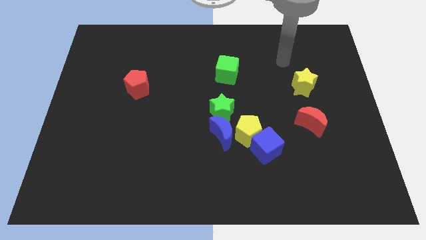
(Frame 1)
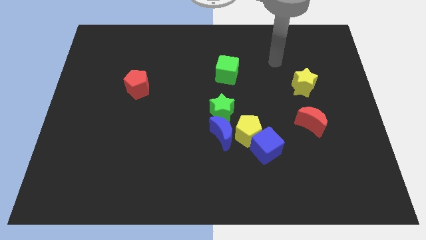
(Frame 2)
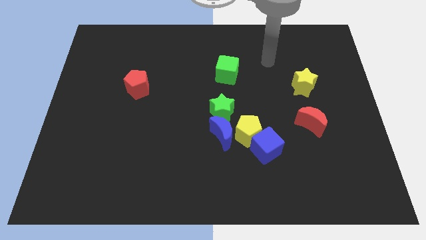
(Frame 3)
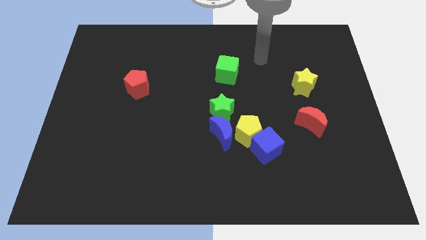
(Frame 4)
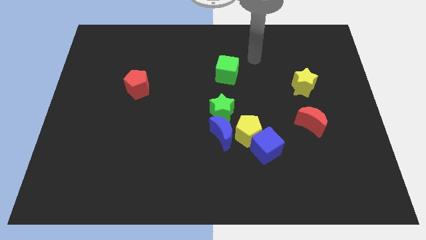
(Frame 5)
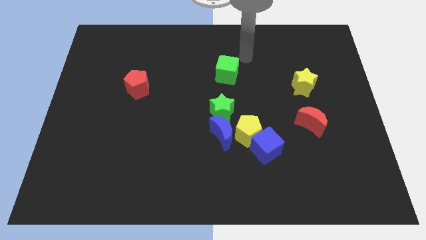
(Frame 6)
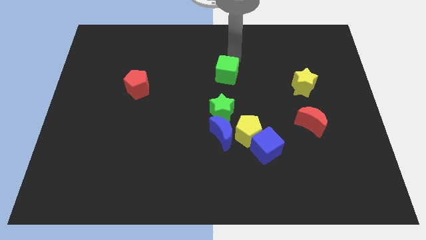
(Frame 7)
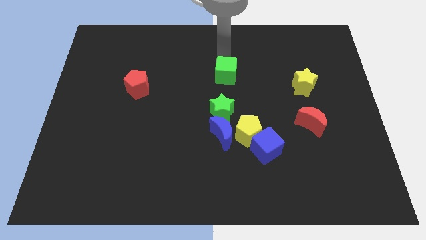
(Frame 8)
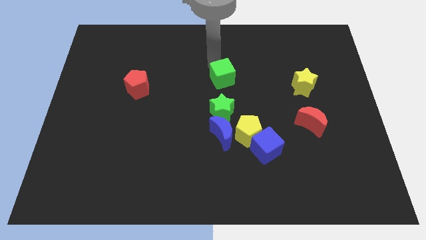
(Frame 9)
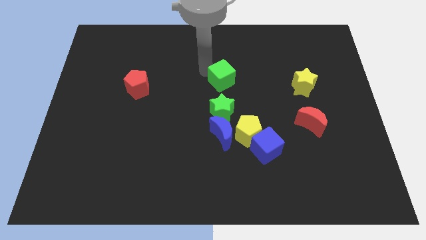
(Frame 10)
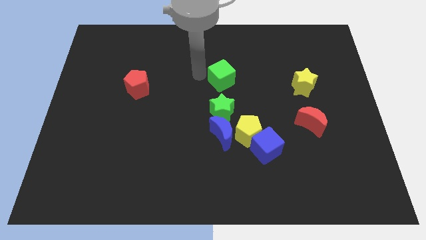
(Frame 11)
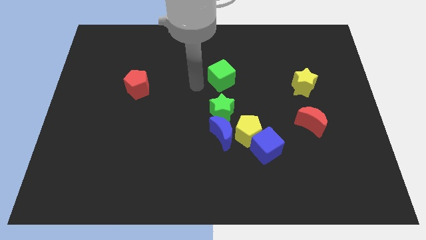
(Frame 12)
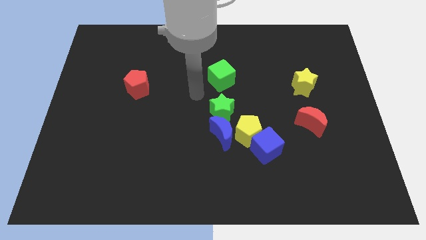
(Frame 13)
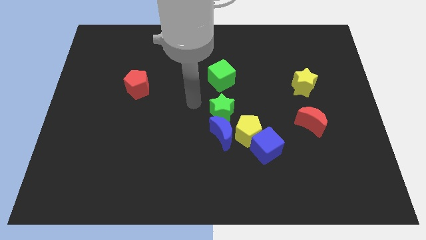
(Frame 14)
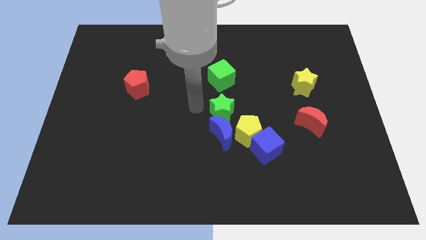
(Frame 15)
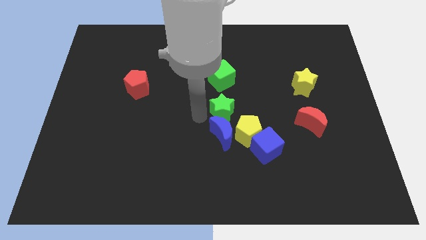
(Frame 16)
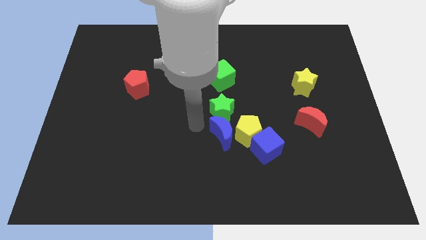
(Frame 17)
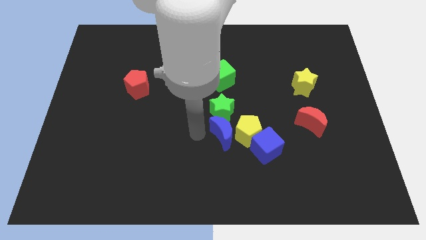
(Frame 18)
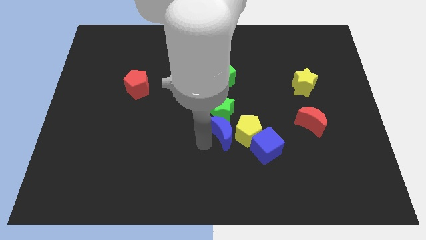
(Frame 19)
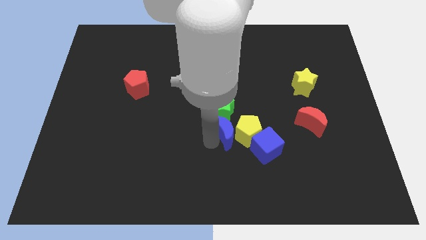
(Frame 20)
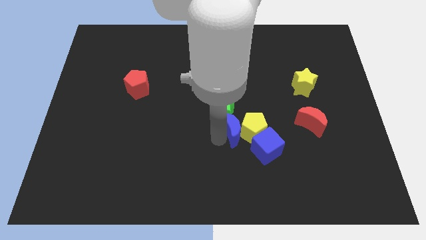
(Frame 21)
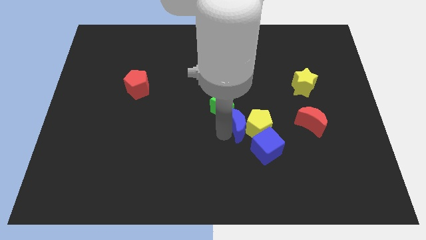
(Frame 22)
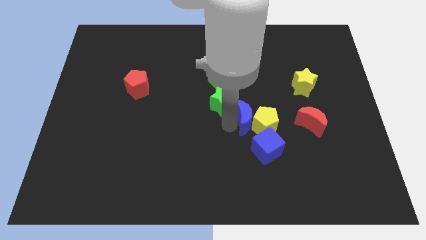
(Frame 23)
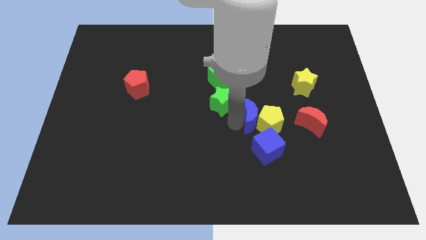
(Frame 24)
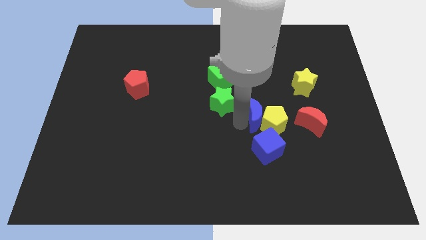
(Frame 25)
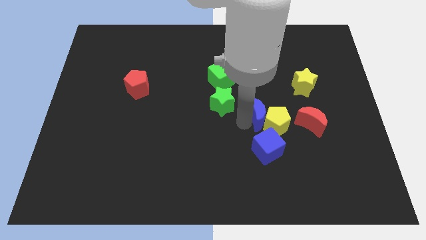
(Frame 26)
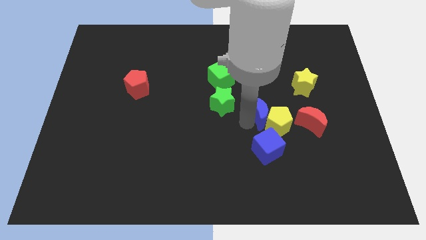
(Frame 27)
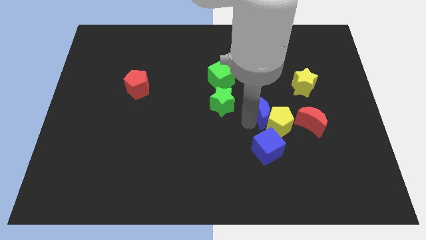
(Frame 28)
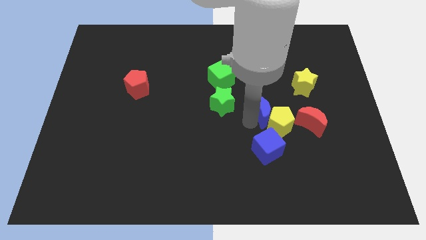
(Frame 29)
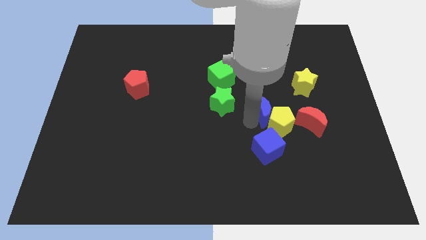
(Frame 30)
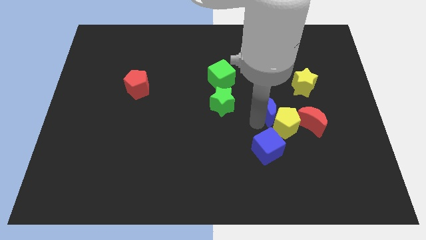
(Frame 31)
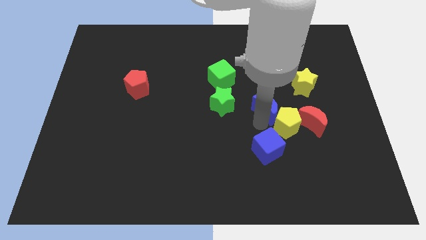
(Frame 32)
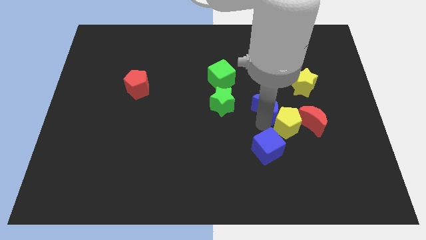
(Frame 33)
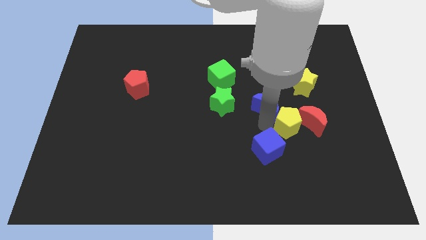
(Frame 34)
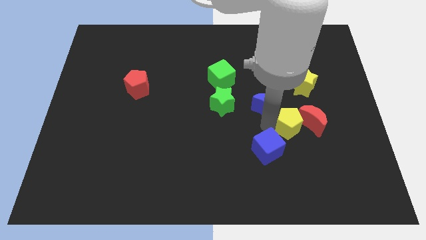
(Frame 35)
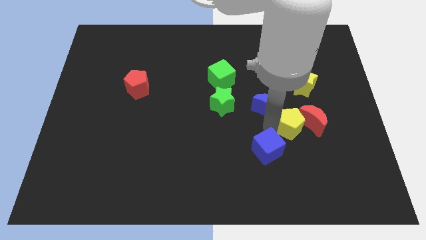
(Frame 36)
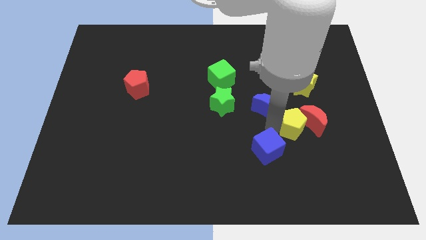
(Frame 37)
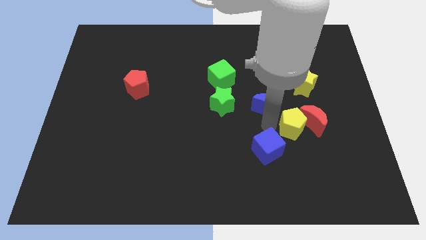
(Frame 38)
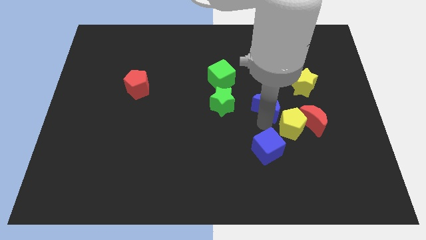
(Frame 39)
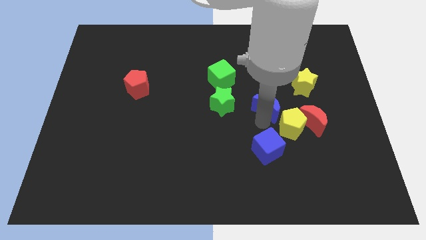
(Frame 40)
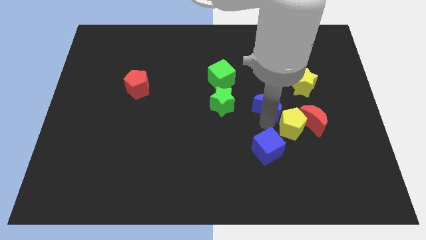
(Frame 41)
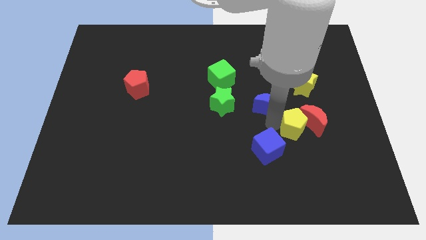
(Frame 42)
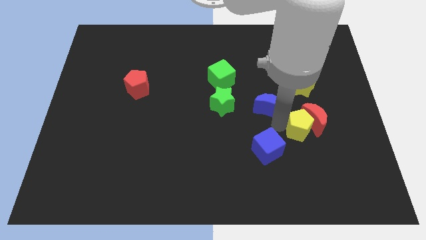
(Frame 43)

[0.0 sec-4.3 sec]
separate the yellow pentagon from the group of blocks

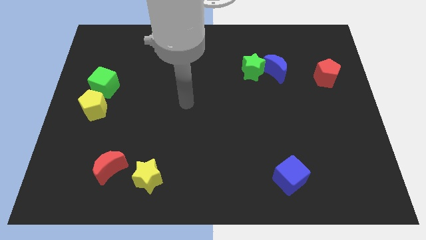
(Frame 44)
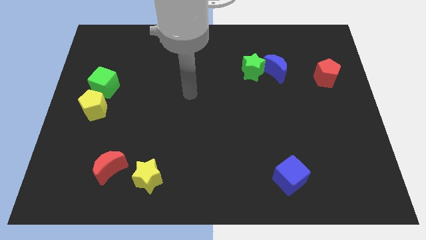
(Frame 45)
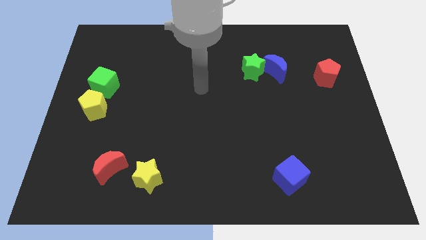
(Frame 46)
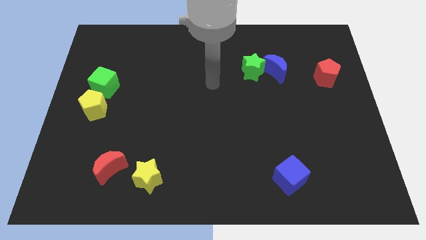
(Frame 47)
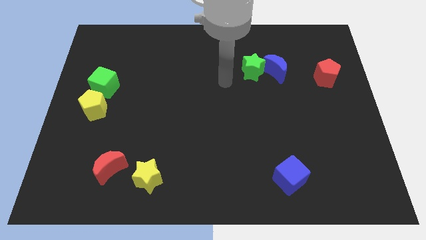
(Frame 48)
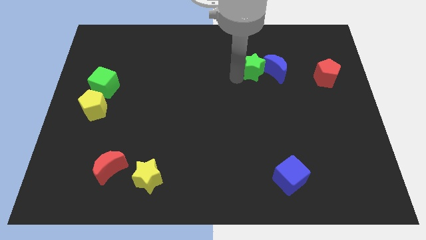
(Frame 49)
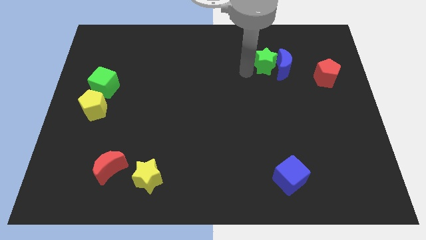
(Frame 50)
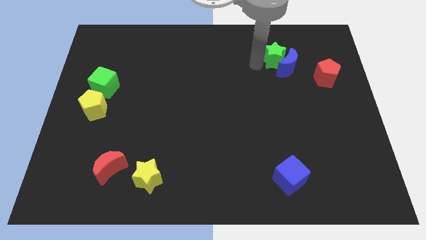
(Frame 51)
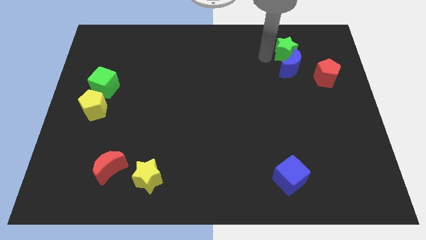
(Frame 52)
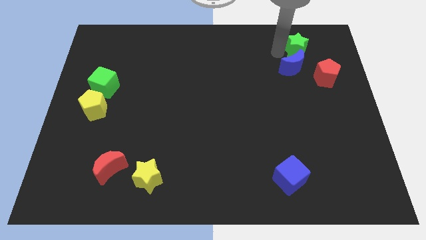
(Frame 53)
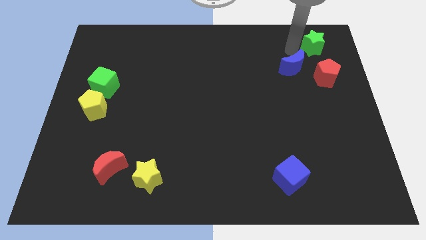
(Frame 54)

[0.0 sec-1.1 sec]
pull the blue moon apart from the green star

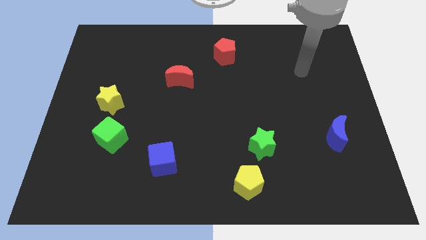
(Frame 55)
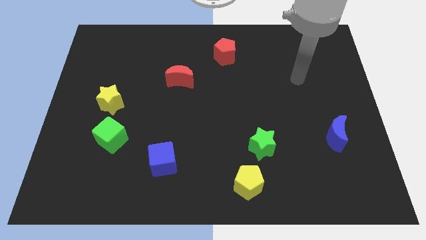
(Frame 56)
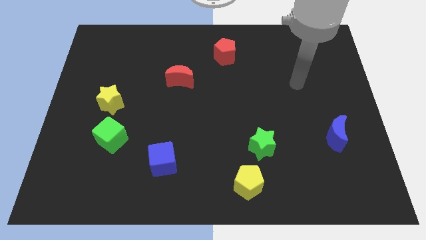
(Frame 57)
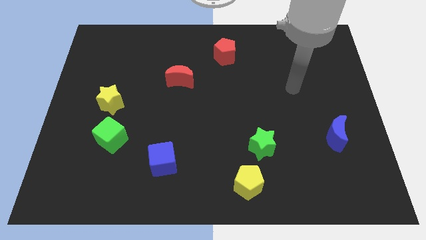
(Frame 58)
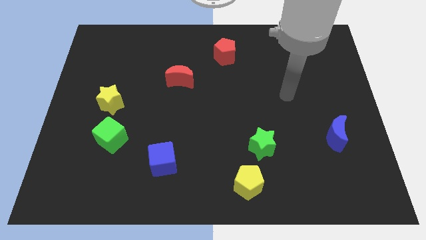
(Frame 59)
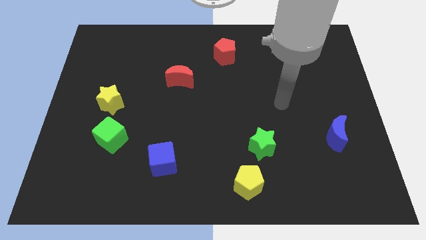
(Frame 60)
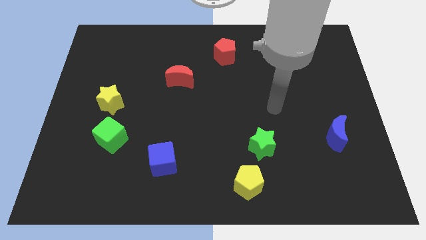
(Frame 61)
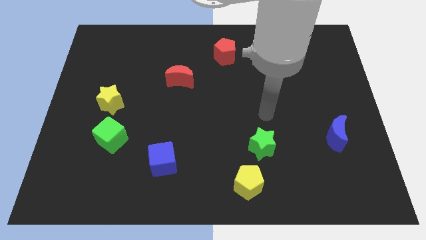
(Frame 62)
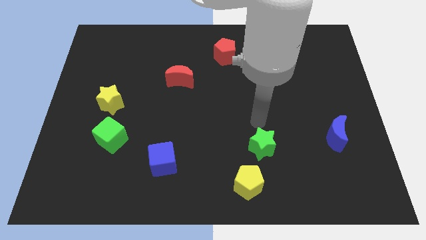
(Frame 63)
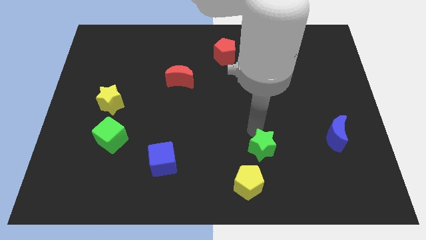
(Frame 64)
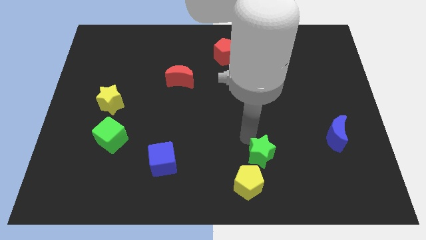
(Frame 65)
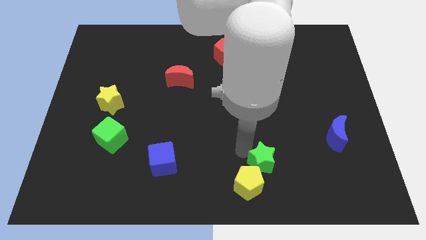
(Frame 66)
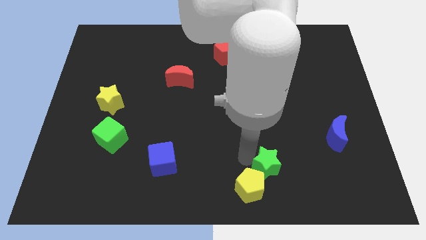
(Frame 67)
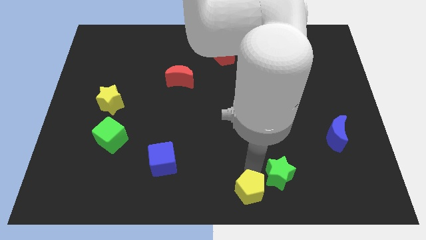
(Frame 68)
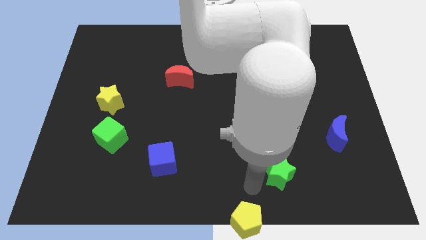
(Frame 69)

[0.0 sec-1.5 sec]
separate the green star from the yellow pentagon

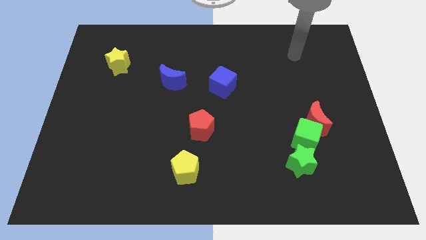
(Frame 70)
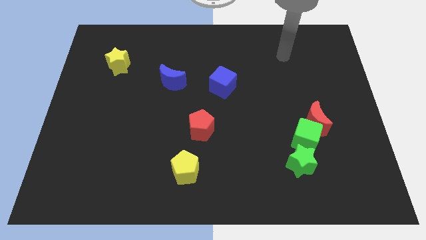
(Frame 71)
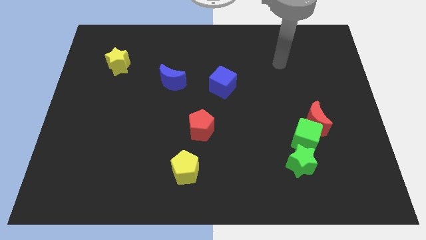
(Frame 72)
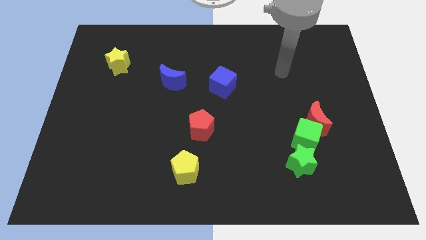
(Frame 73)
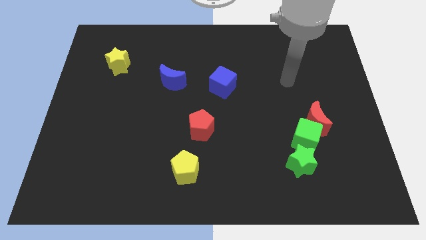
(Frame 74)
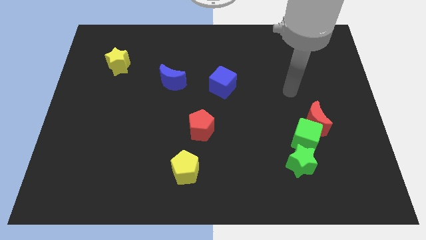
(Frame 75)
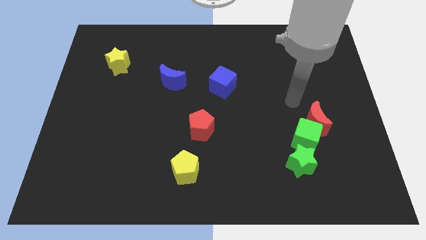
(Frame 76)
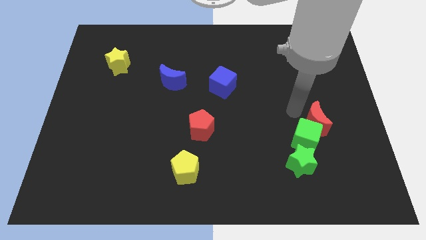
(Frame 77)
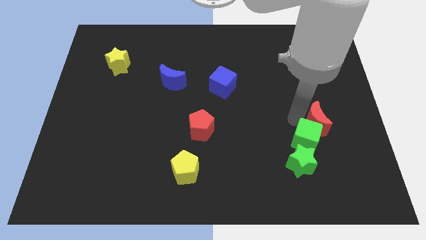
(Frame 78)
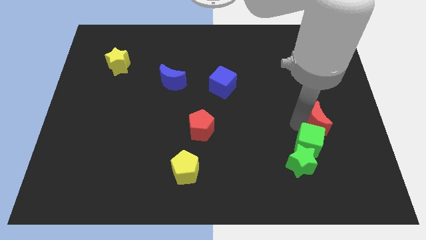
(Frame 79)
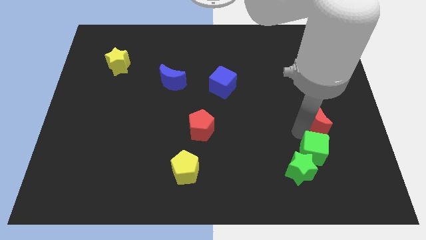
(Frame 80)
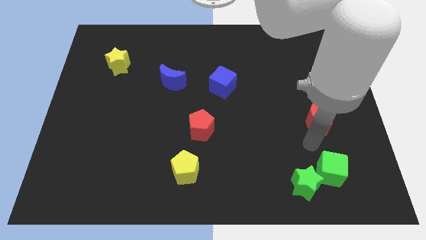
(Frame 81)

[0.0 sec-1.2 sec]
separate the red moon from the green cube

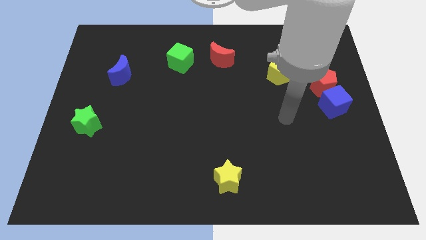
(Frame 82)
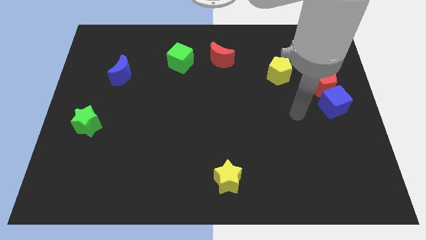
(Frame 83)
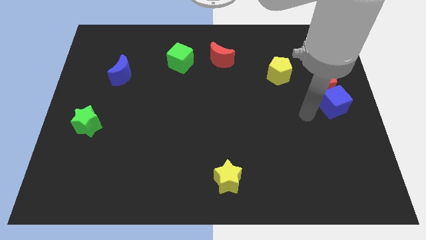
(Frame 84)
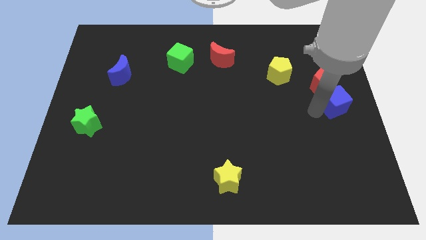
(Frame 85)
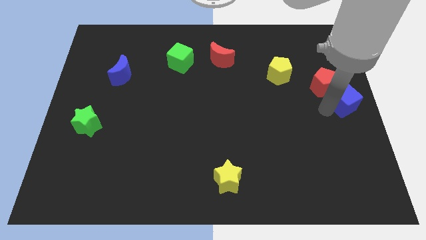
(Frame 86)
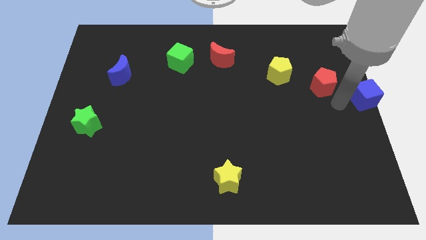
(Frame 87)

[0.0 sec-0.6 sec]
move the red pentagon away from the blue cube

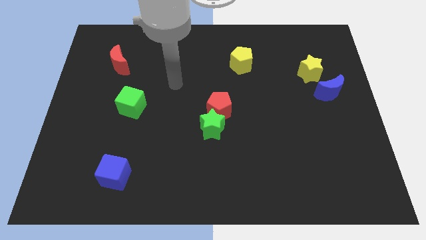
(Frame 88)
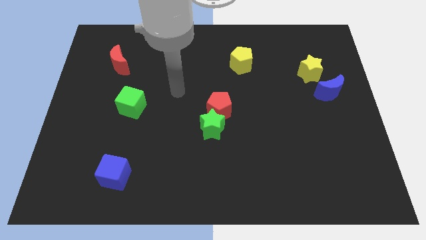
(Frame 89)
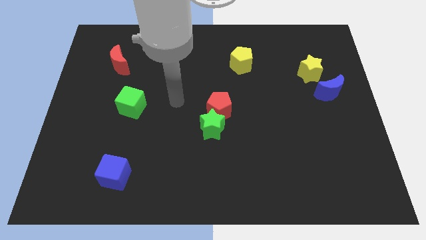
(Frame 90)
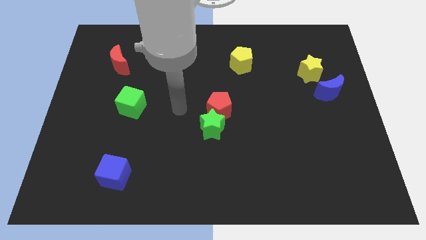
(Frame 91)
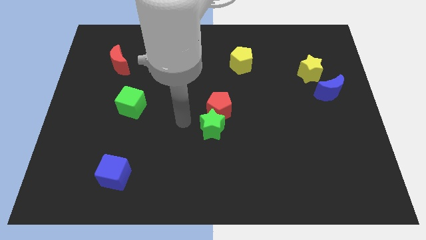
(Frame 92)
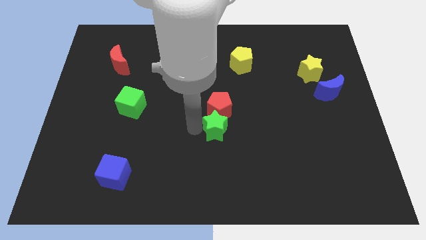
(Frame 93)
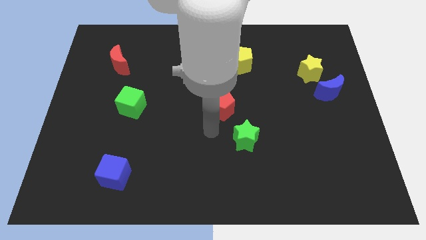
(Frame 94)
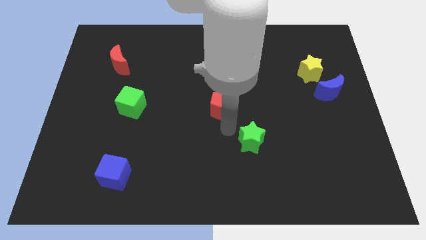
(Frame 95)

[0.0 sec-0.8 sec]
separate the red pentagon from the green star
